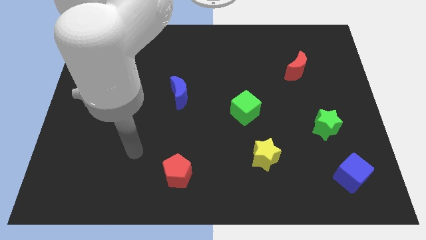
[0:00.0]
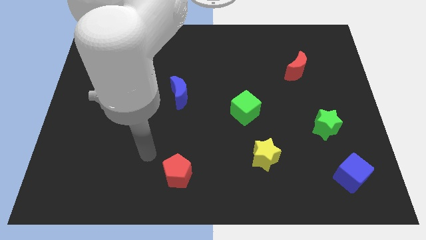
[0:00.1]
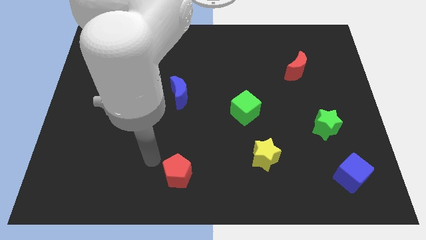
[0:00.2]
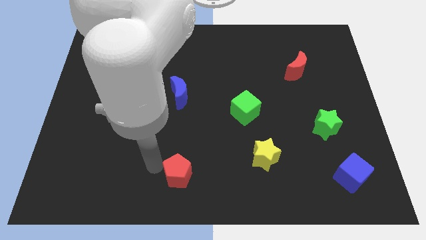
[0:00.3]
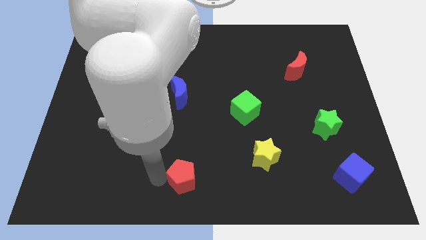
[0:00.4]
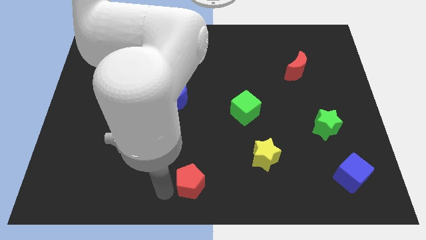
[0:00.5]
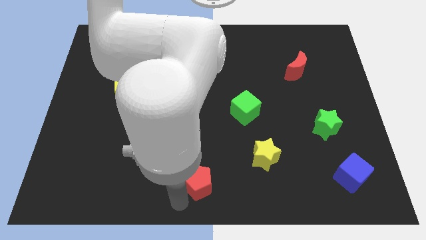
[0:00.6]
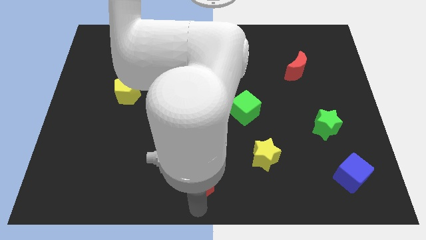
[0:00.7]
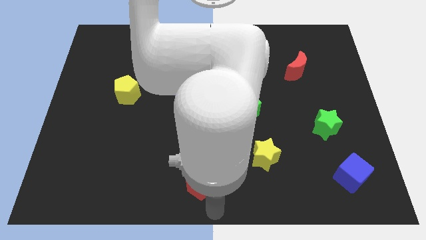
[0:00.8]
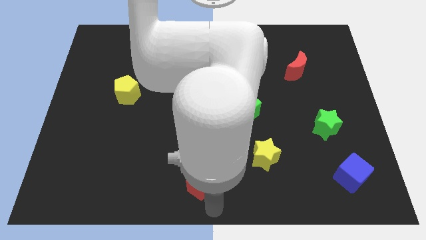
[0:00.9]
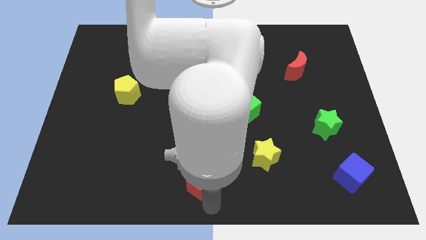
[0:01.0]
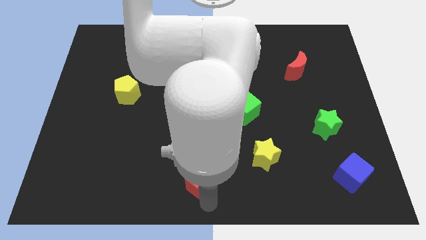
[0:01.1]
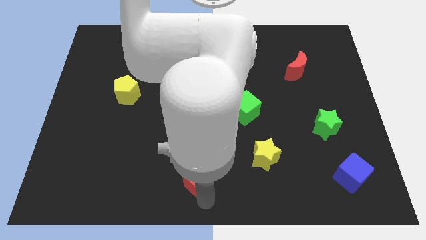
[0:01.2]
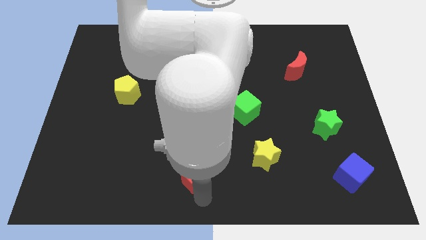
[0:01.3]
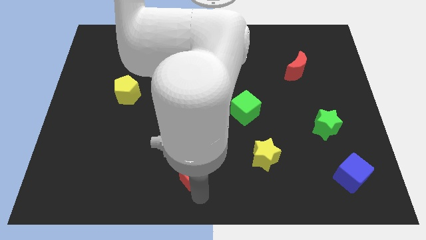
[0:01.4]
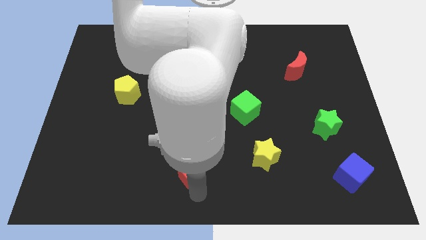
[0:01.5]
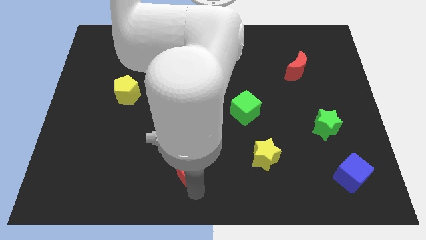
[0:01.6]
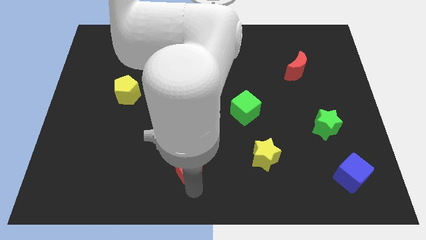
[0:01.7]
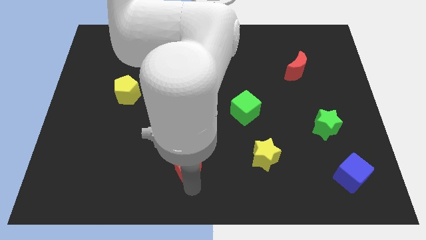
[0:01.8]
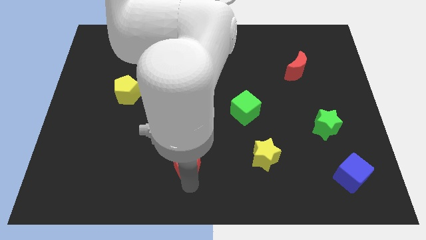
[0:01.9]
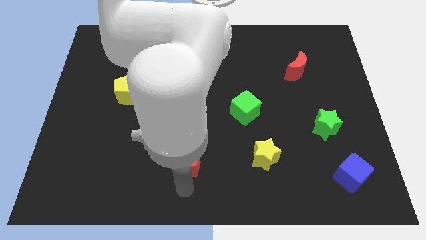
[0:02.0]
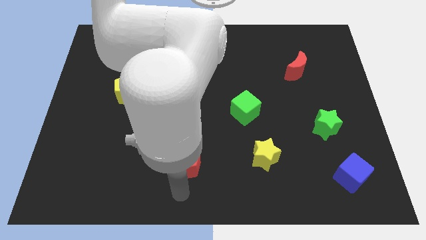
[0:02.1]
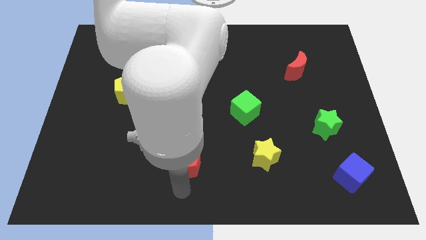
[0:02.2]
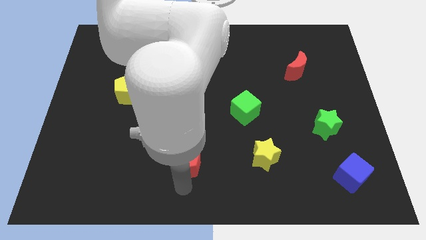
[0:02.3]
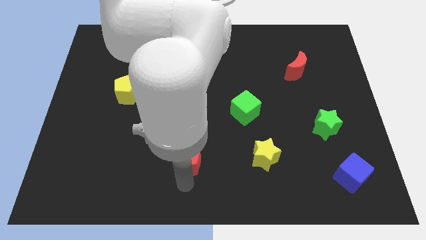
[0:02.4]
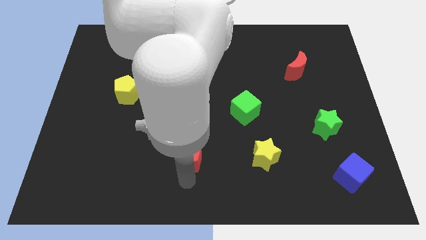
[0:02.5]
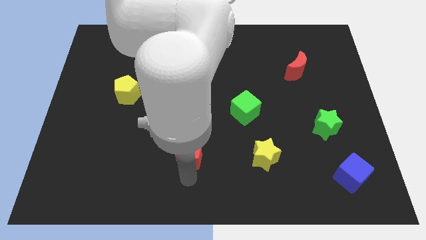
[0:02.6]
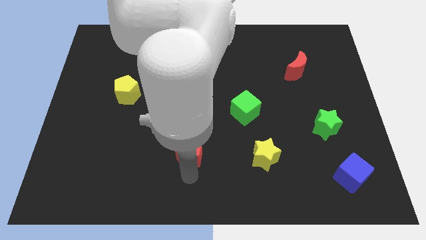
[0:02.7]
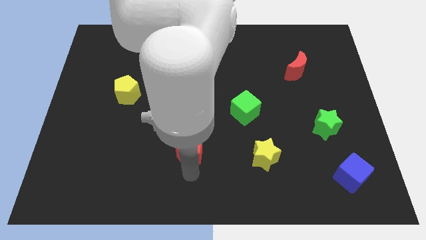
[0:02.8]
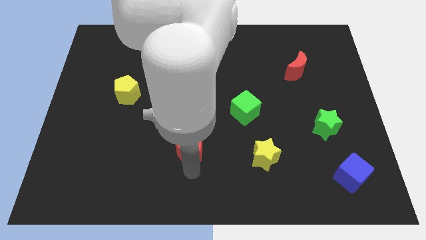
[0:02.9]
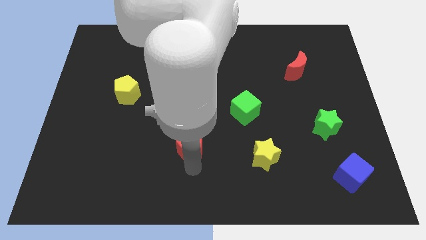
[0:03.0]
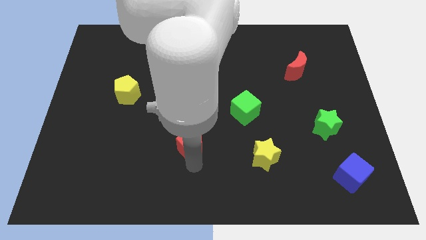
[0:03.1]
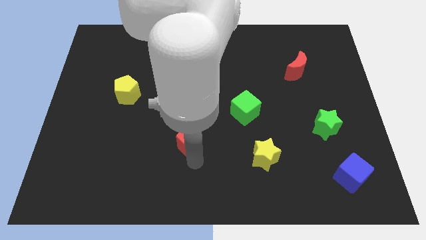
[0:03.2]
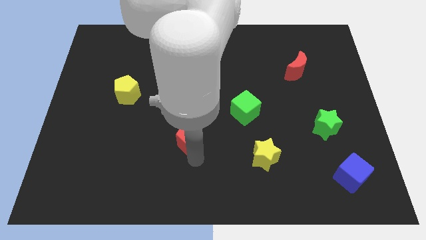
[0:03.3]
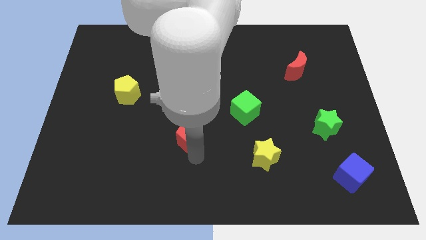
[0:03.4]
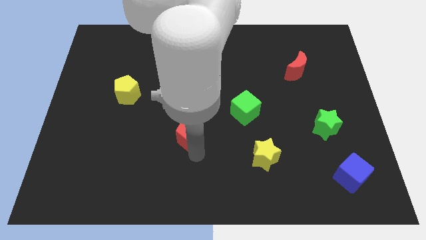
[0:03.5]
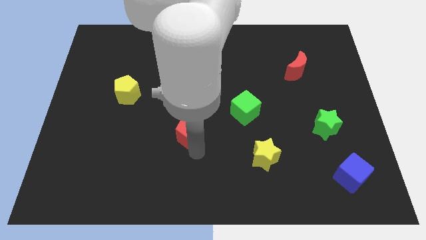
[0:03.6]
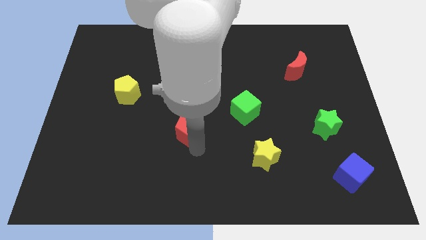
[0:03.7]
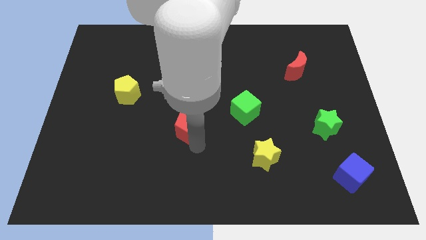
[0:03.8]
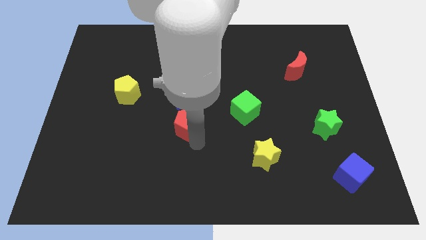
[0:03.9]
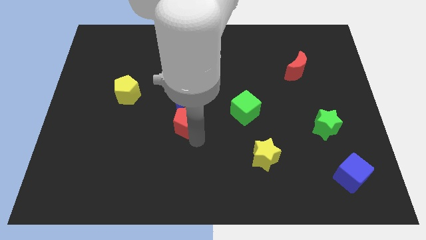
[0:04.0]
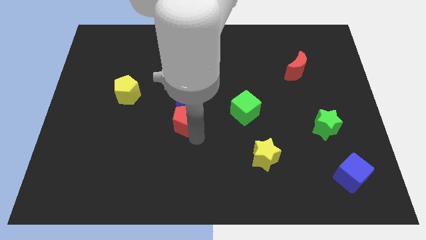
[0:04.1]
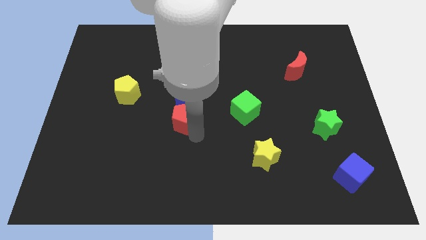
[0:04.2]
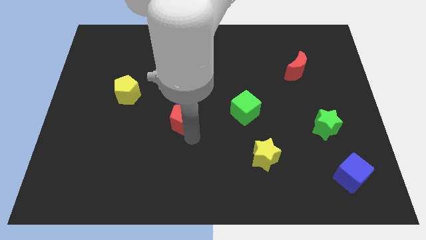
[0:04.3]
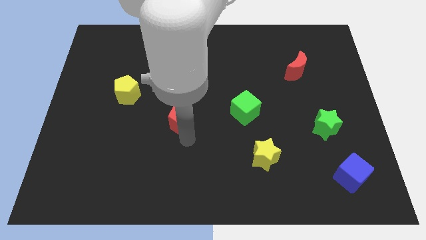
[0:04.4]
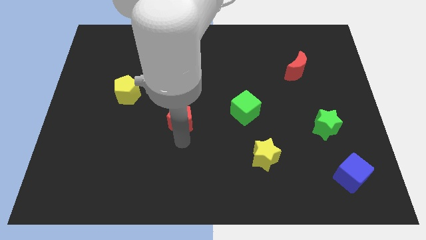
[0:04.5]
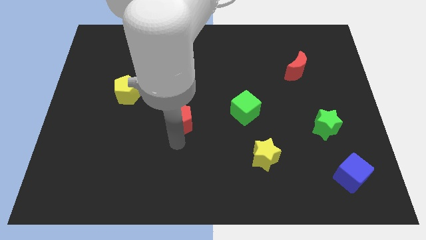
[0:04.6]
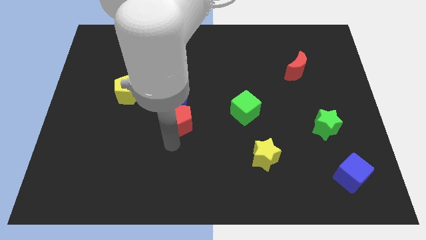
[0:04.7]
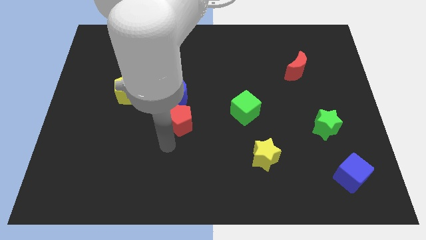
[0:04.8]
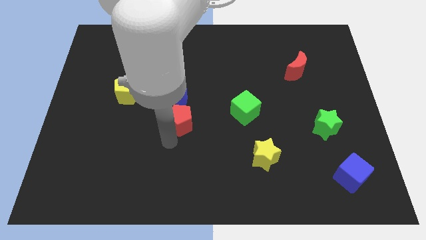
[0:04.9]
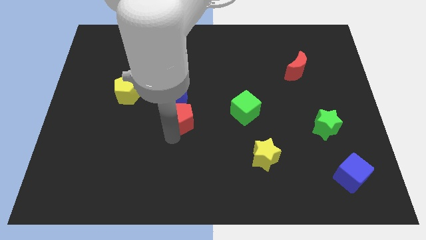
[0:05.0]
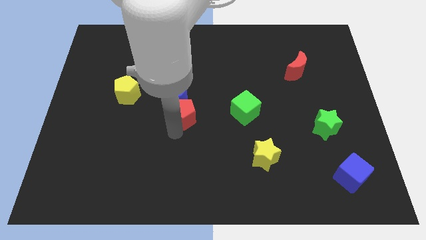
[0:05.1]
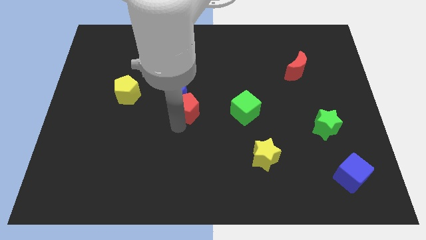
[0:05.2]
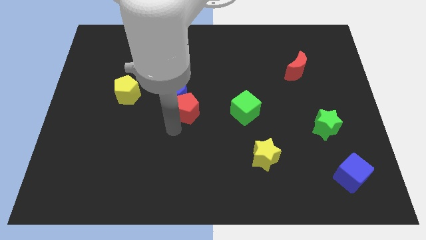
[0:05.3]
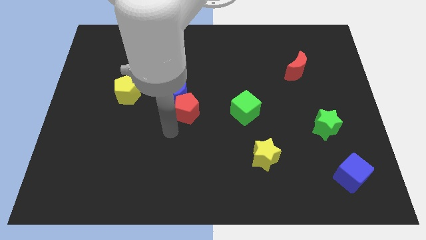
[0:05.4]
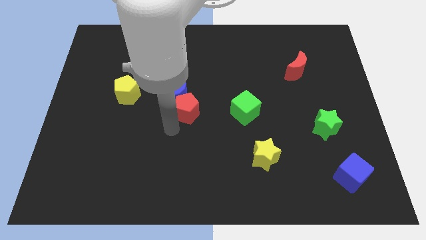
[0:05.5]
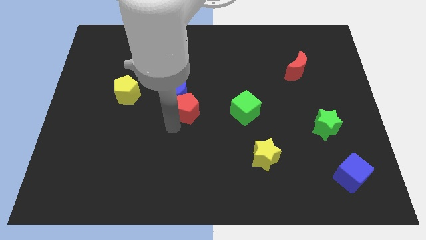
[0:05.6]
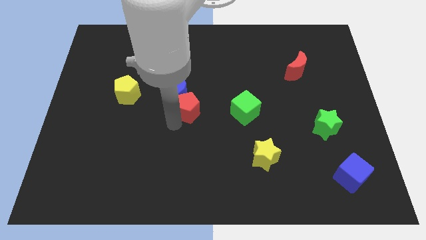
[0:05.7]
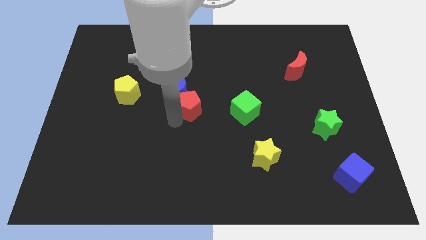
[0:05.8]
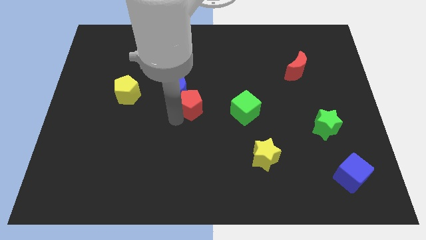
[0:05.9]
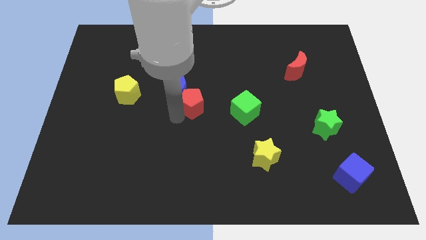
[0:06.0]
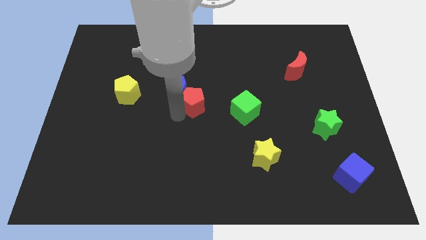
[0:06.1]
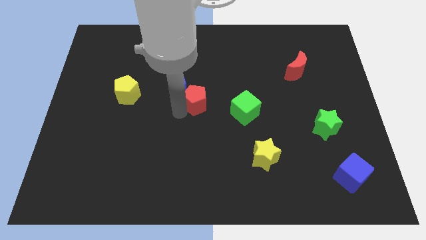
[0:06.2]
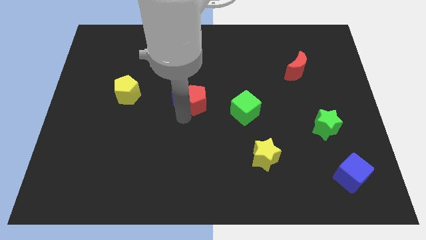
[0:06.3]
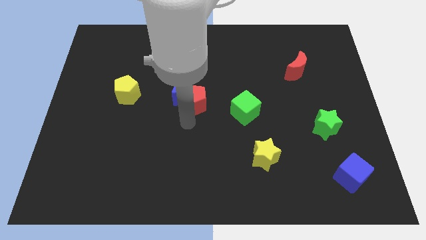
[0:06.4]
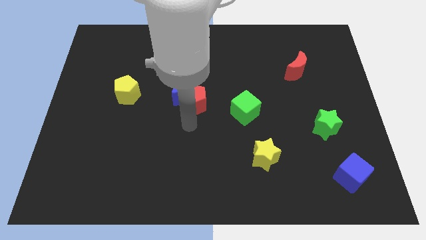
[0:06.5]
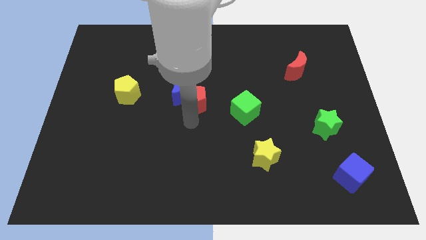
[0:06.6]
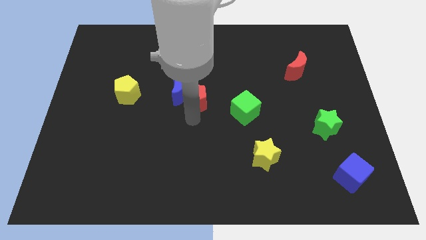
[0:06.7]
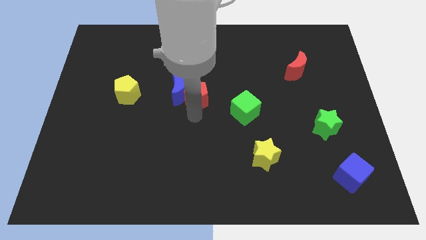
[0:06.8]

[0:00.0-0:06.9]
move the red pentagon to the top right side of the blue moon
